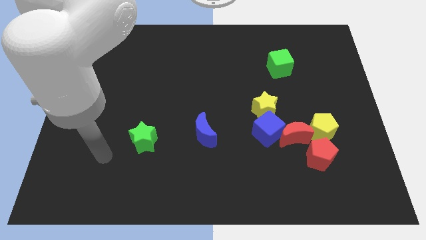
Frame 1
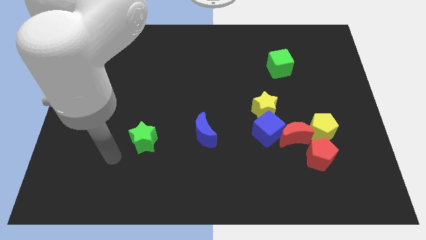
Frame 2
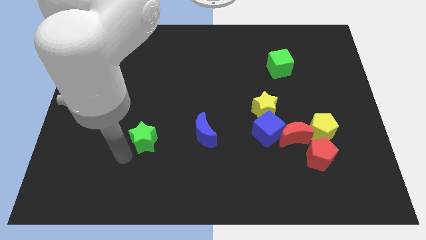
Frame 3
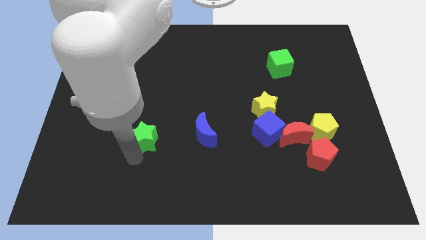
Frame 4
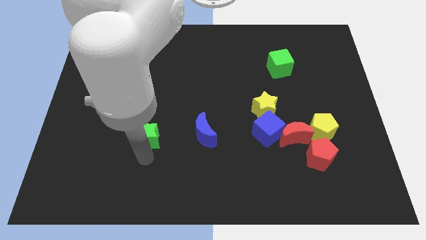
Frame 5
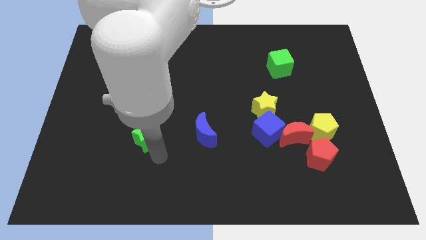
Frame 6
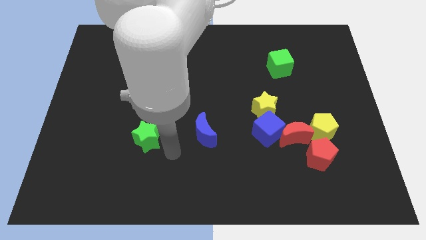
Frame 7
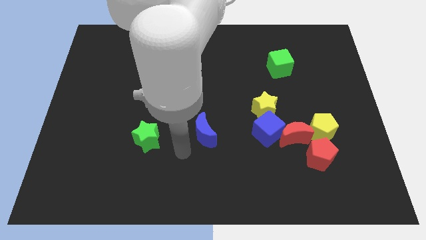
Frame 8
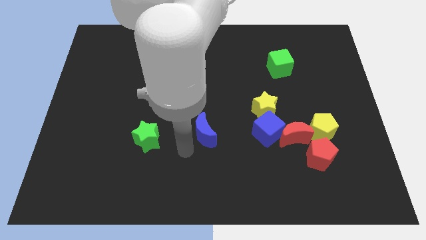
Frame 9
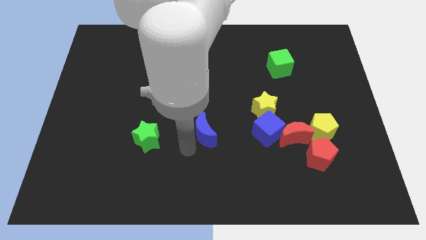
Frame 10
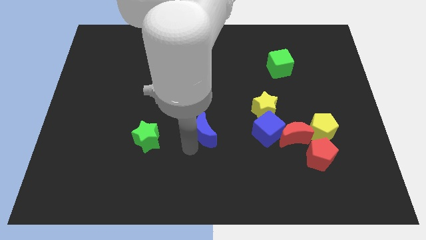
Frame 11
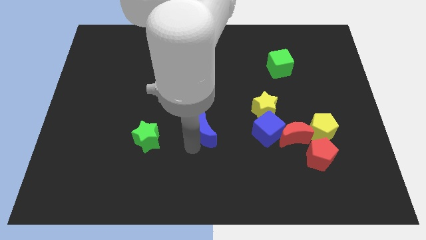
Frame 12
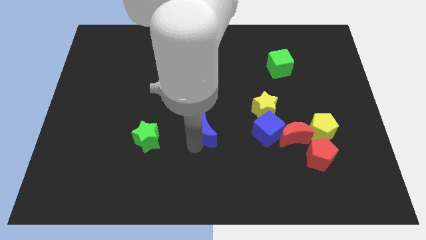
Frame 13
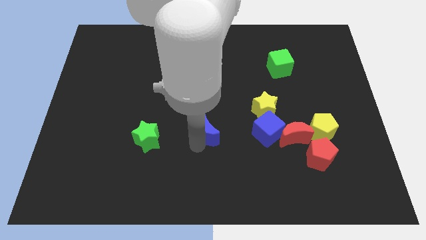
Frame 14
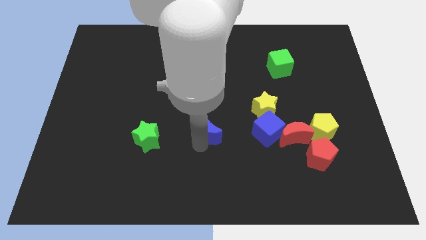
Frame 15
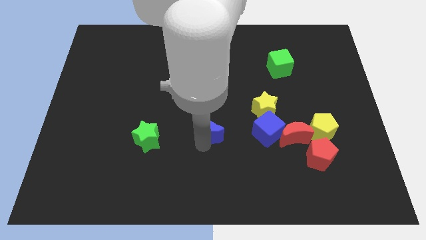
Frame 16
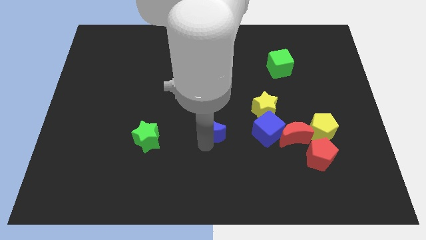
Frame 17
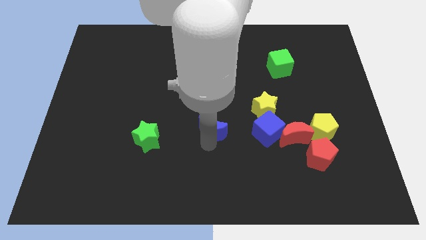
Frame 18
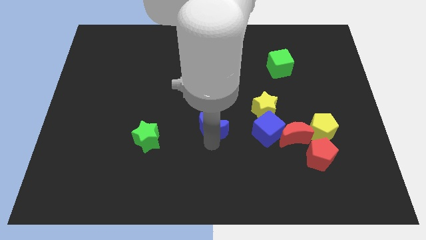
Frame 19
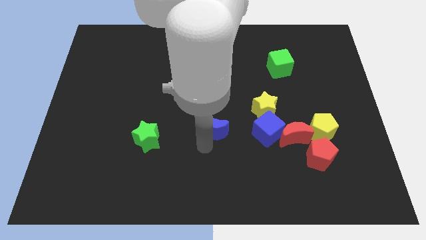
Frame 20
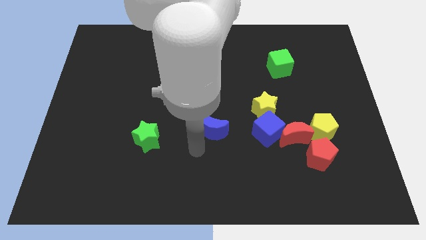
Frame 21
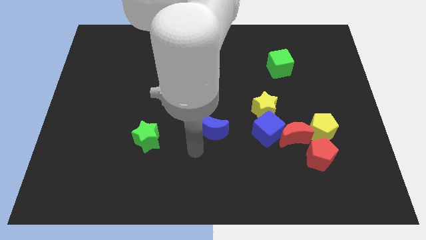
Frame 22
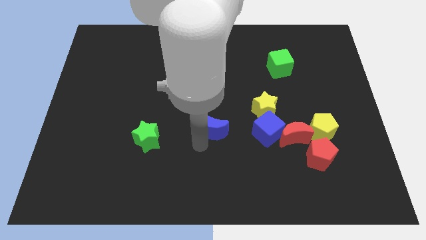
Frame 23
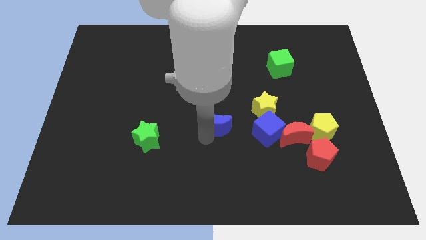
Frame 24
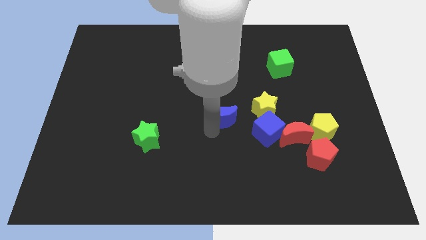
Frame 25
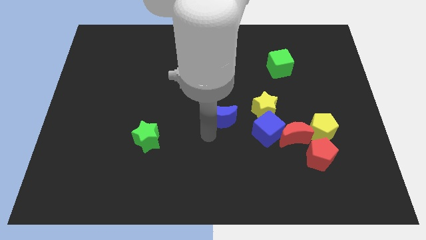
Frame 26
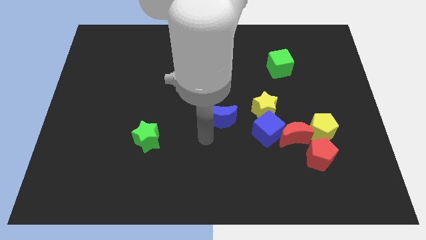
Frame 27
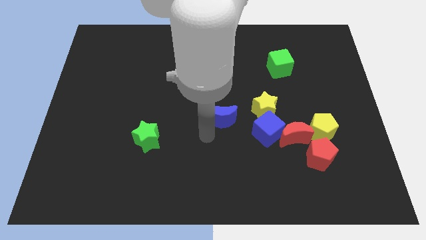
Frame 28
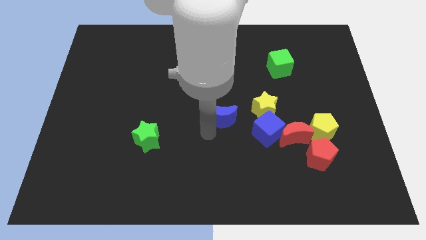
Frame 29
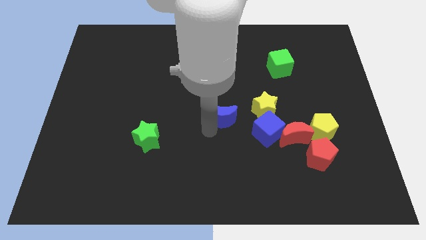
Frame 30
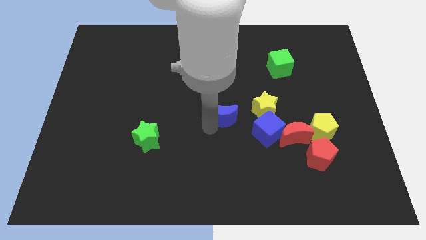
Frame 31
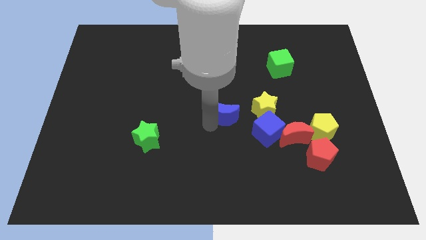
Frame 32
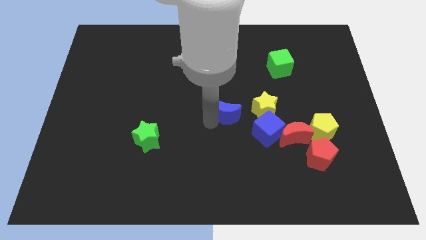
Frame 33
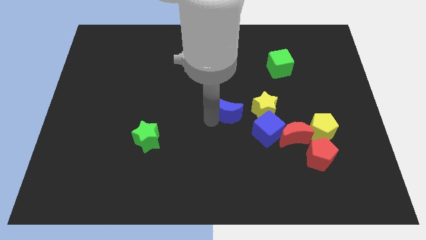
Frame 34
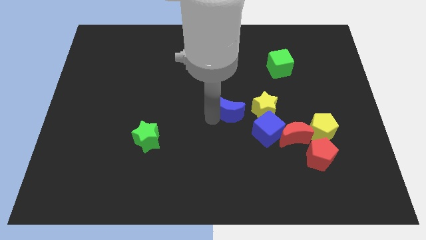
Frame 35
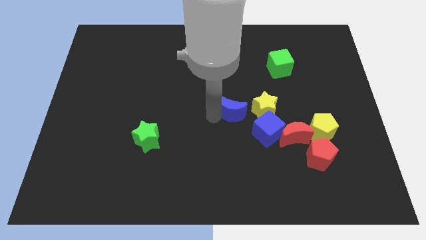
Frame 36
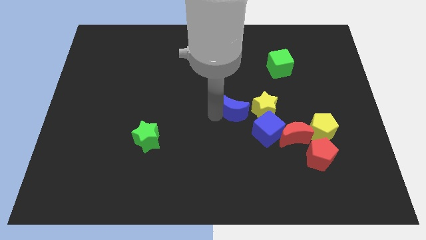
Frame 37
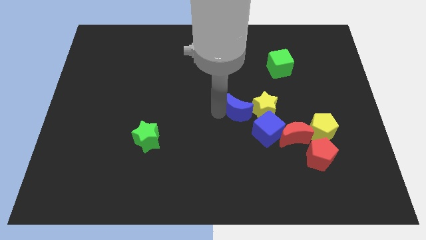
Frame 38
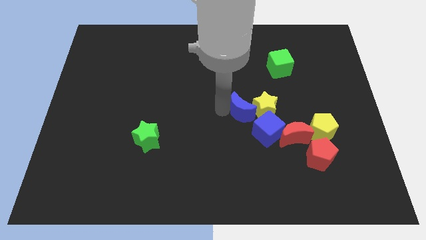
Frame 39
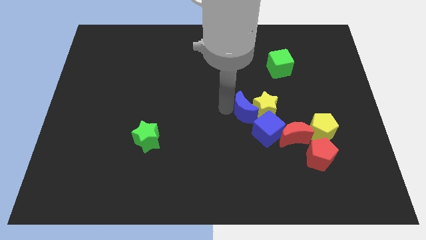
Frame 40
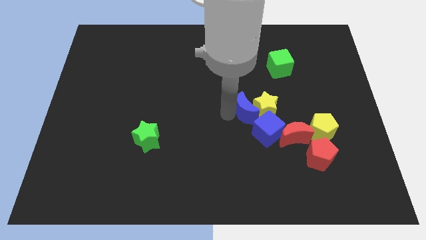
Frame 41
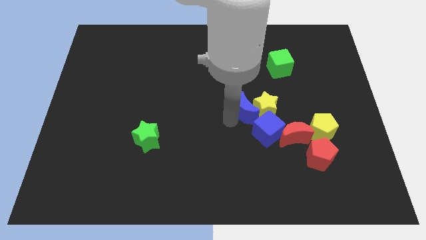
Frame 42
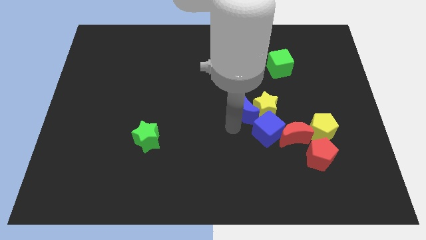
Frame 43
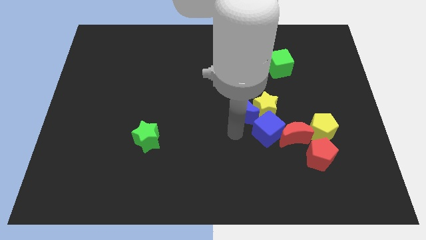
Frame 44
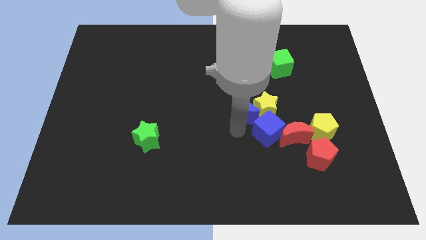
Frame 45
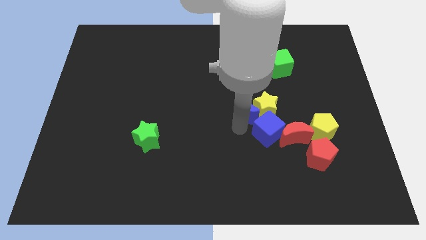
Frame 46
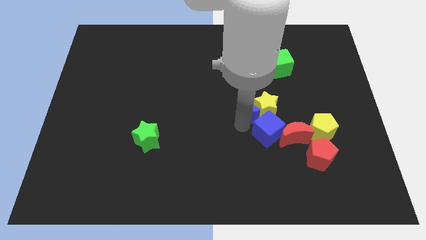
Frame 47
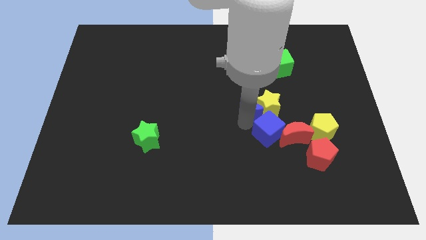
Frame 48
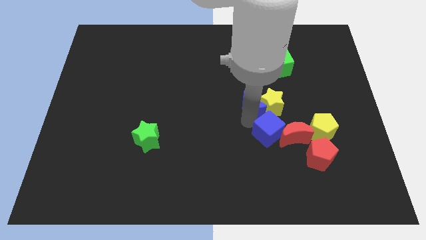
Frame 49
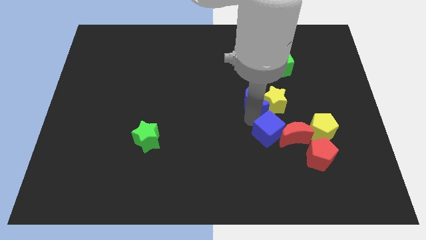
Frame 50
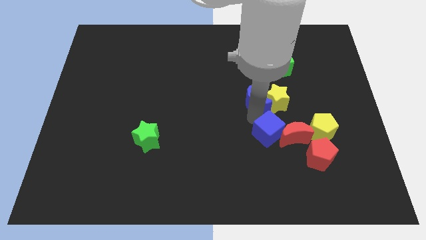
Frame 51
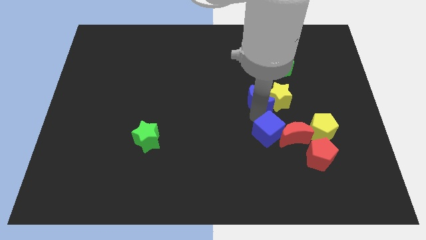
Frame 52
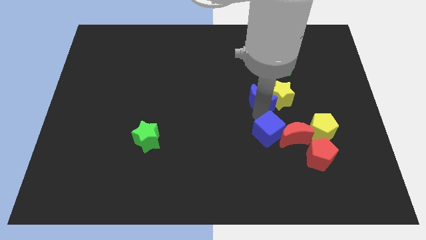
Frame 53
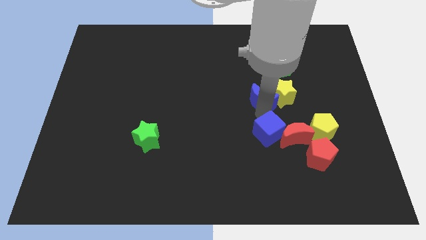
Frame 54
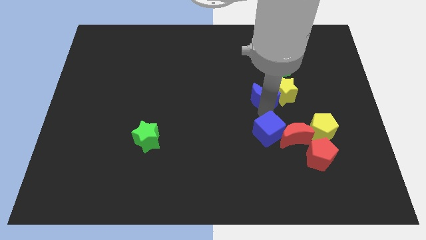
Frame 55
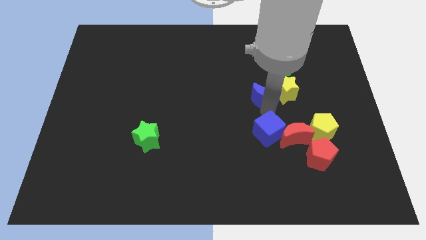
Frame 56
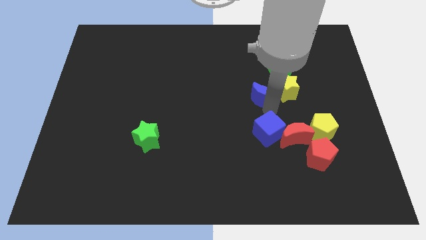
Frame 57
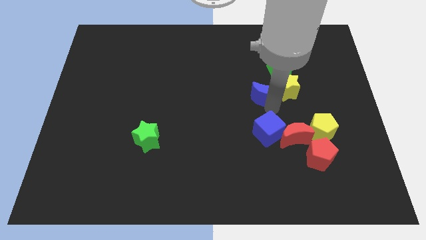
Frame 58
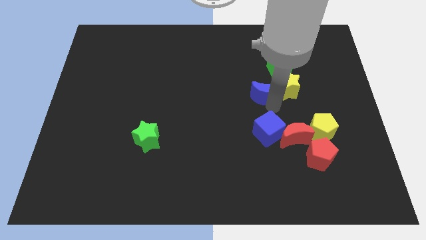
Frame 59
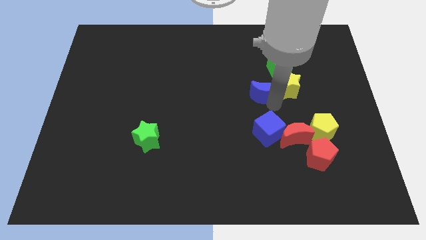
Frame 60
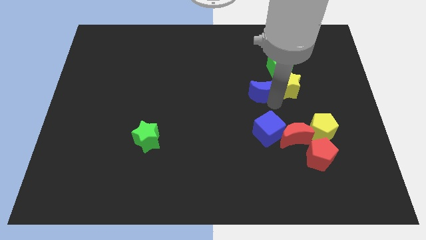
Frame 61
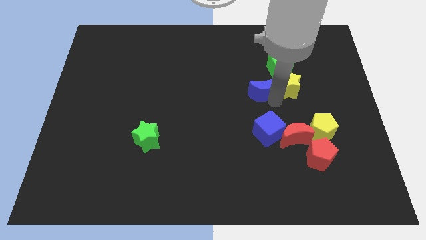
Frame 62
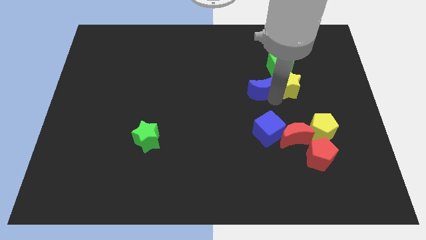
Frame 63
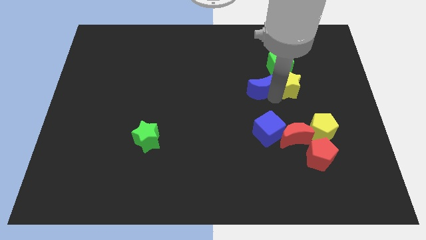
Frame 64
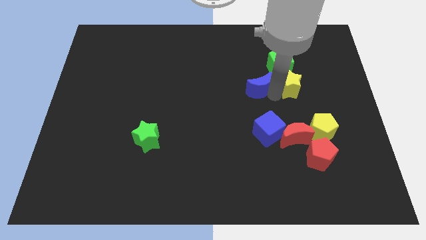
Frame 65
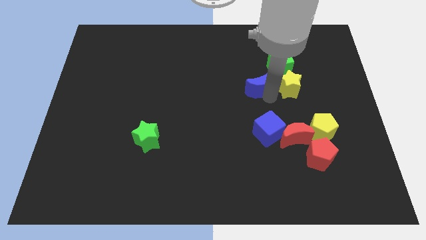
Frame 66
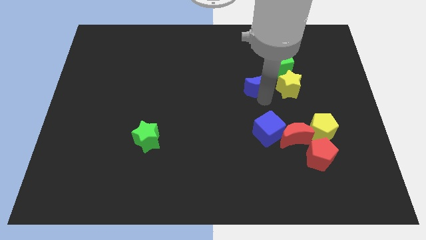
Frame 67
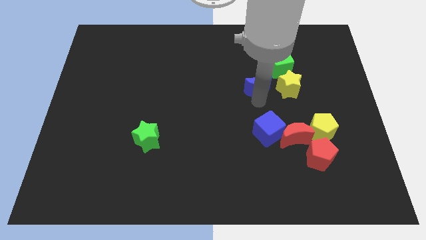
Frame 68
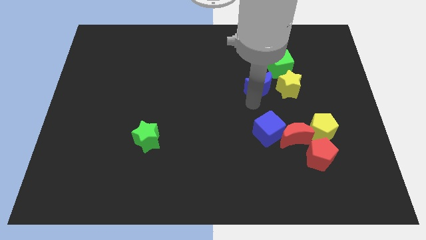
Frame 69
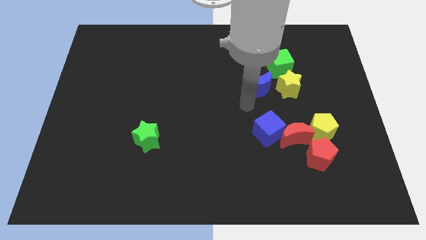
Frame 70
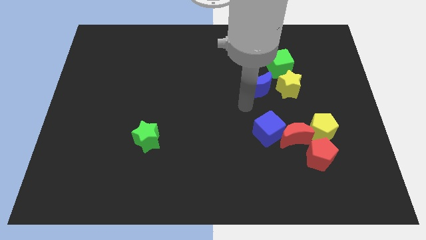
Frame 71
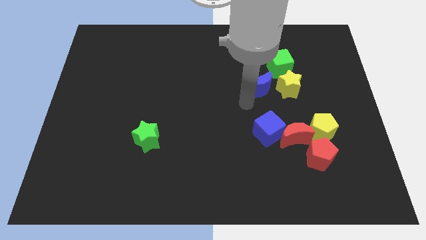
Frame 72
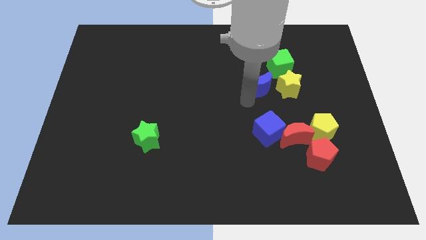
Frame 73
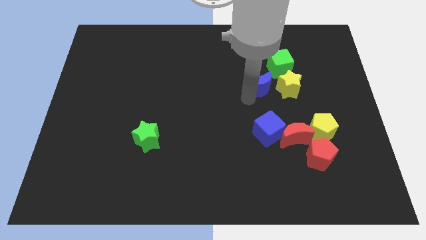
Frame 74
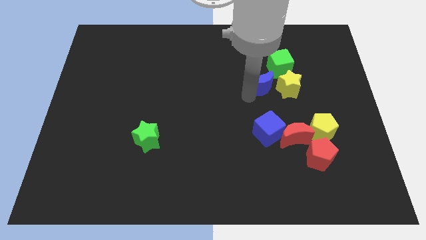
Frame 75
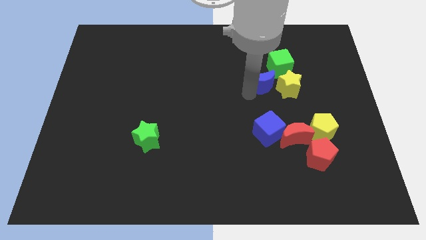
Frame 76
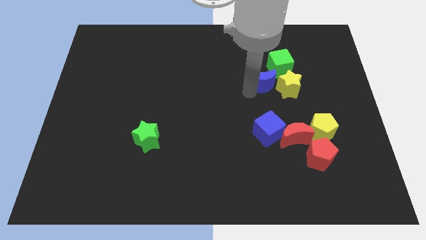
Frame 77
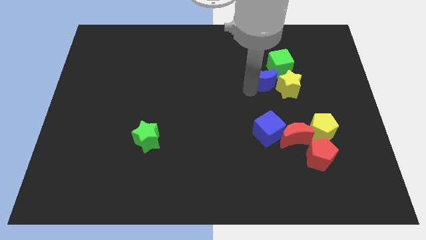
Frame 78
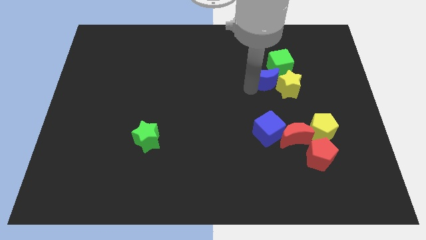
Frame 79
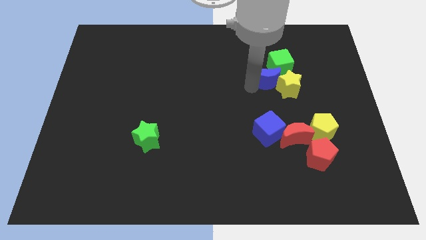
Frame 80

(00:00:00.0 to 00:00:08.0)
put the blue moon to the green cube
